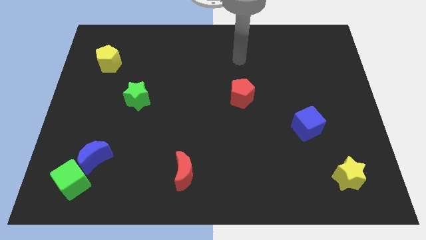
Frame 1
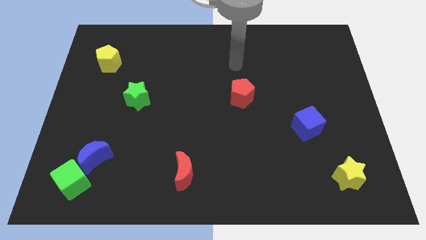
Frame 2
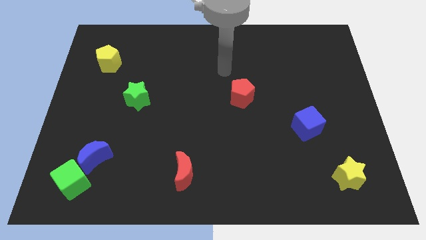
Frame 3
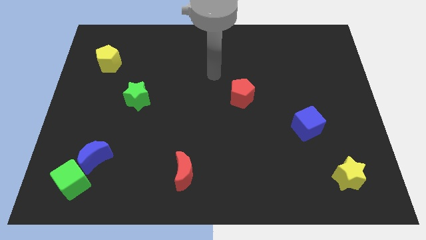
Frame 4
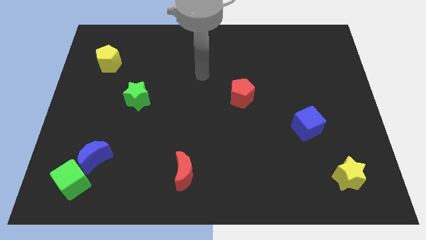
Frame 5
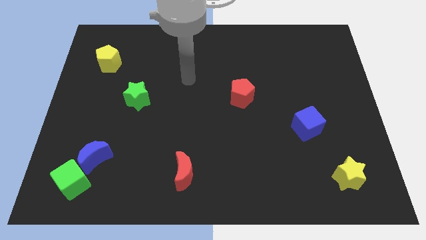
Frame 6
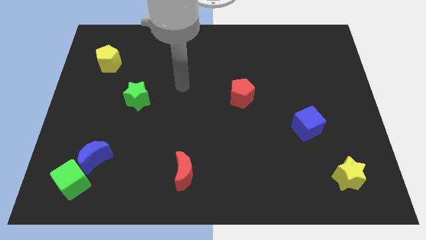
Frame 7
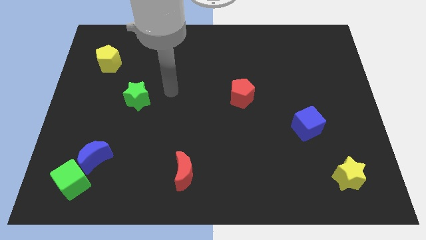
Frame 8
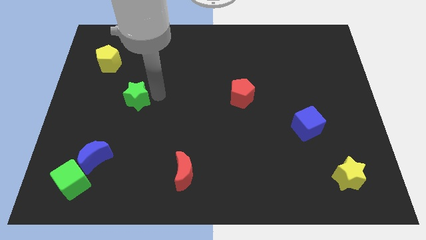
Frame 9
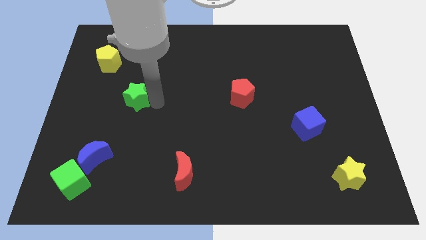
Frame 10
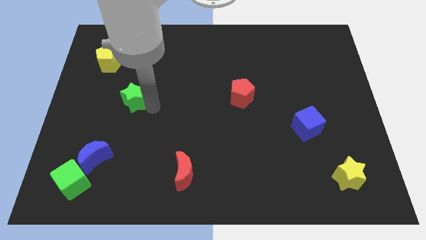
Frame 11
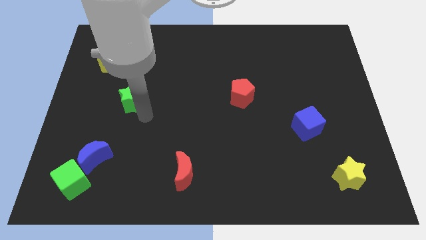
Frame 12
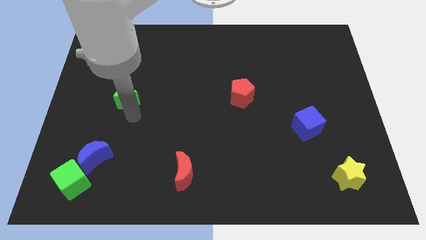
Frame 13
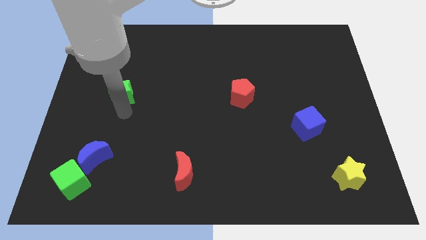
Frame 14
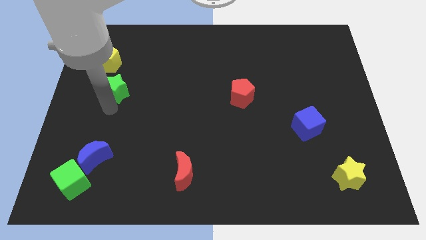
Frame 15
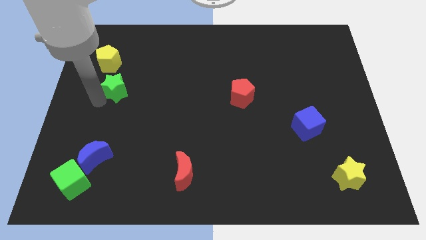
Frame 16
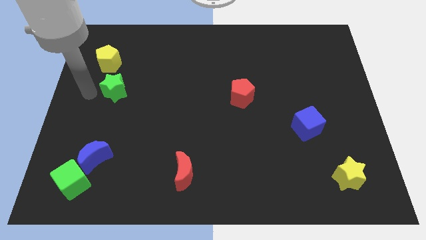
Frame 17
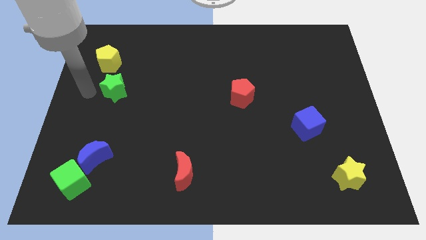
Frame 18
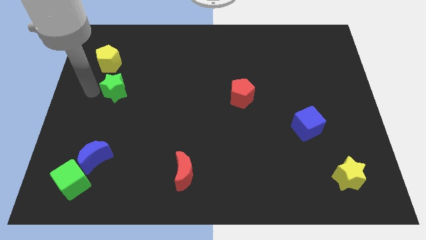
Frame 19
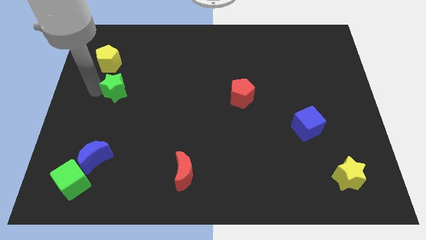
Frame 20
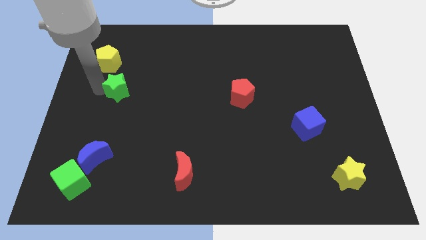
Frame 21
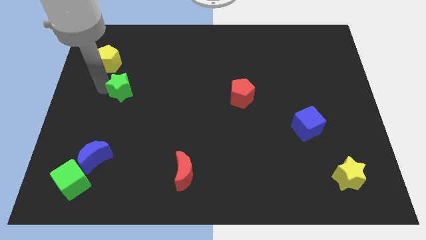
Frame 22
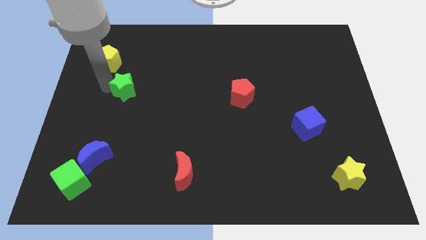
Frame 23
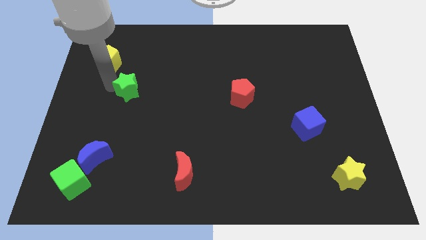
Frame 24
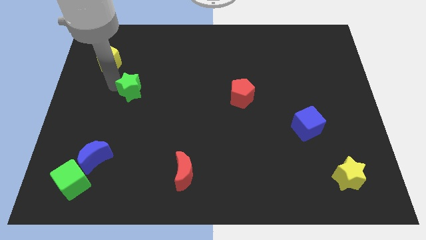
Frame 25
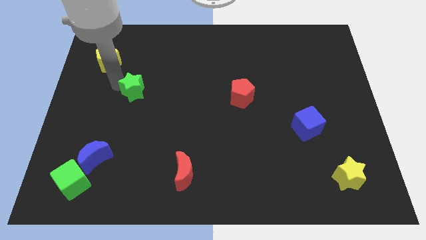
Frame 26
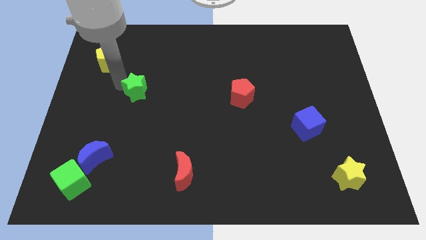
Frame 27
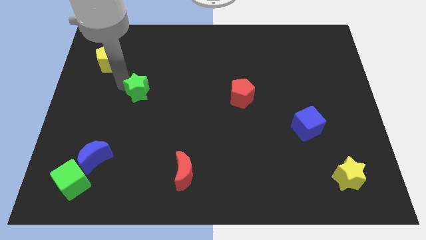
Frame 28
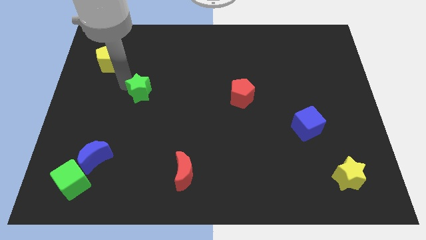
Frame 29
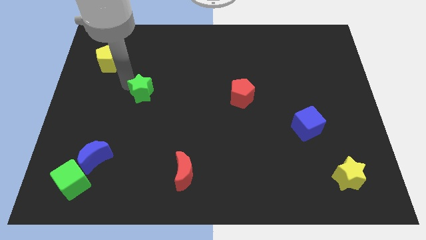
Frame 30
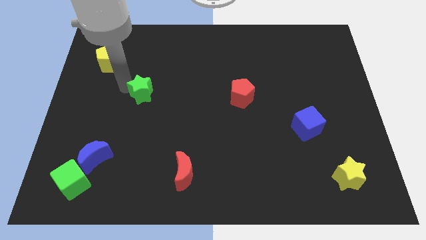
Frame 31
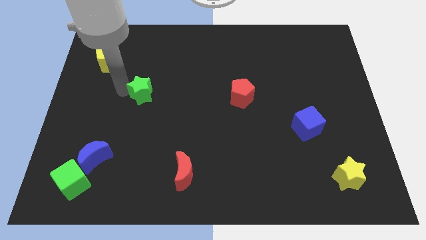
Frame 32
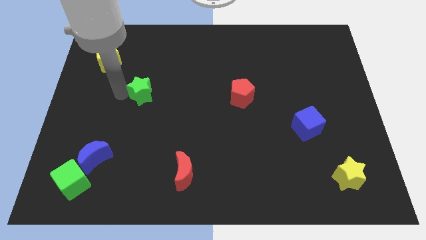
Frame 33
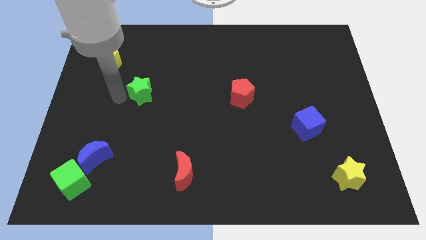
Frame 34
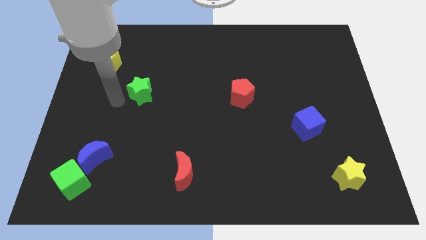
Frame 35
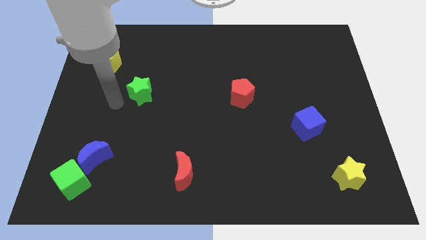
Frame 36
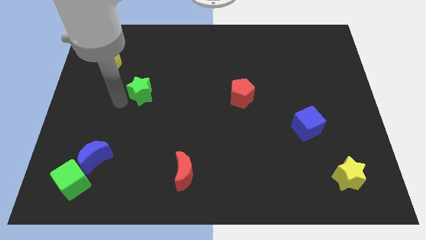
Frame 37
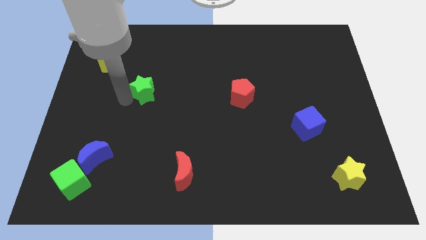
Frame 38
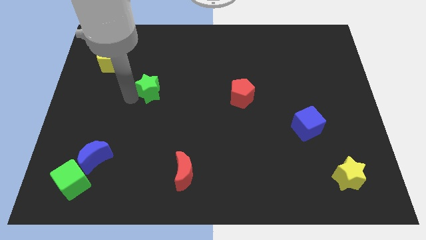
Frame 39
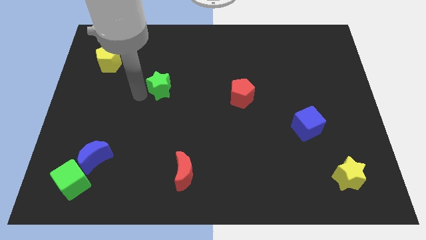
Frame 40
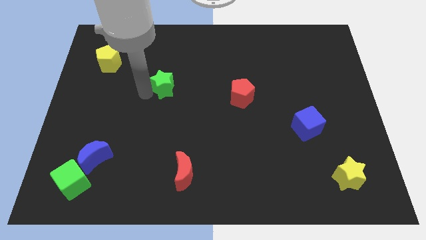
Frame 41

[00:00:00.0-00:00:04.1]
push the green star up and right diagonally a little bit

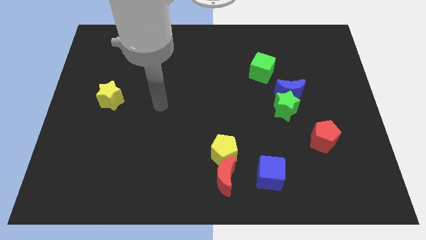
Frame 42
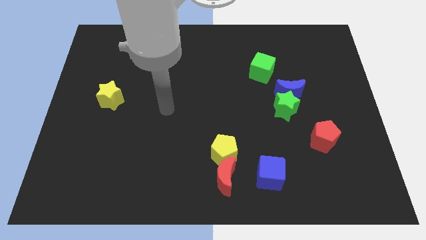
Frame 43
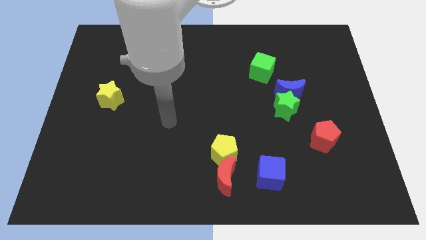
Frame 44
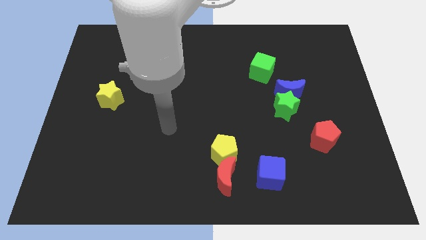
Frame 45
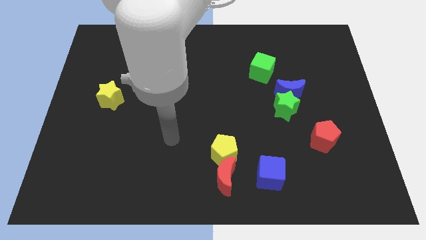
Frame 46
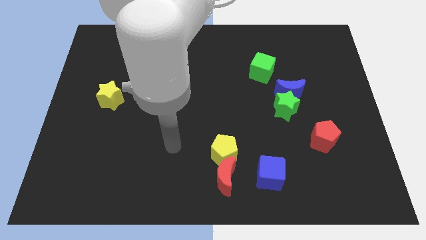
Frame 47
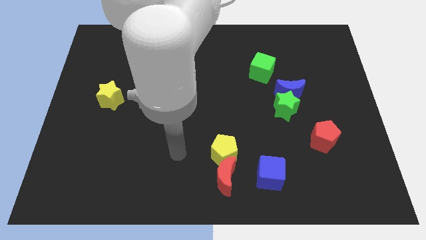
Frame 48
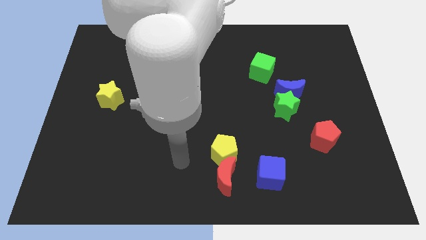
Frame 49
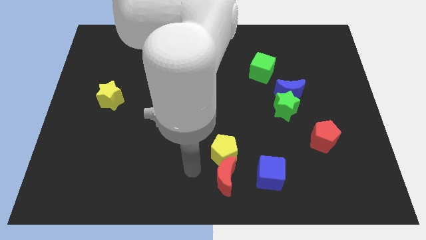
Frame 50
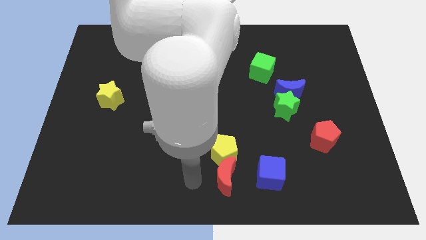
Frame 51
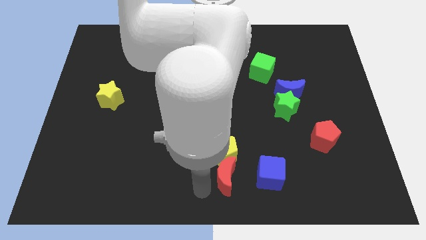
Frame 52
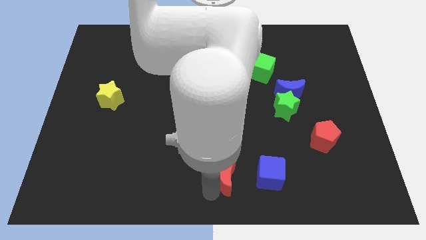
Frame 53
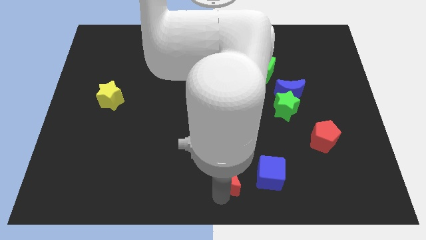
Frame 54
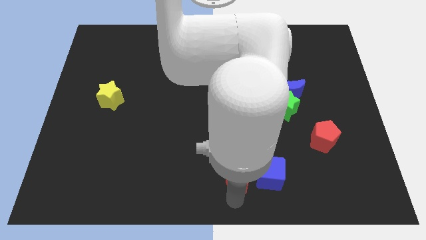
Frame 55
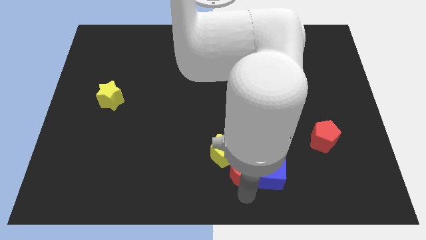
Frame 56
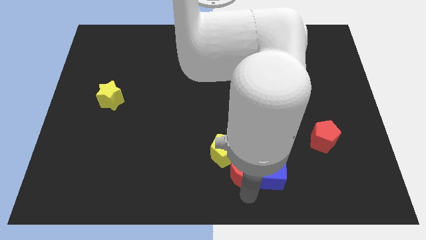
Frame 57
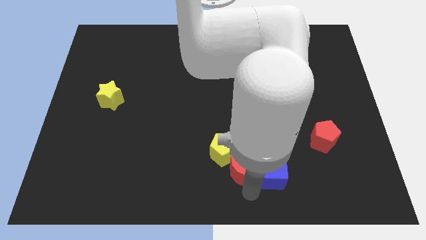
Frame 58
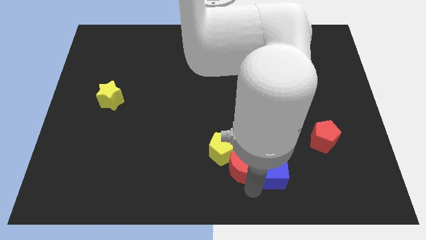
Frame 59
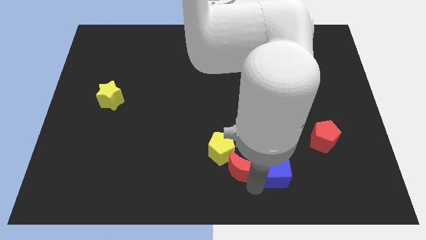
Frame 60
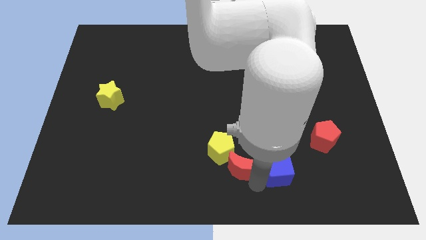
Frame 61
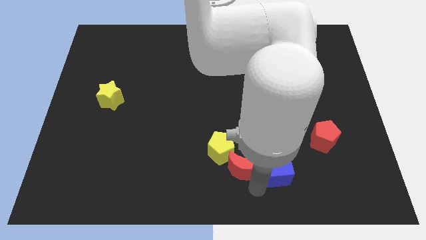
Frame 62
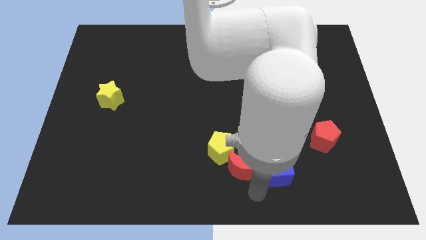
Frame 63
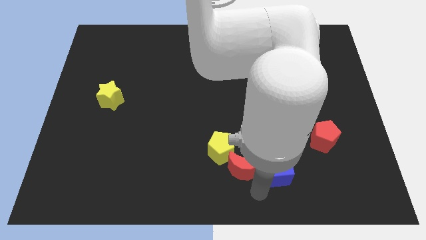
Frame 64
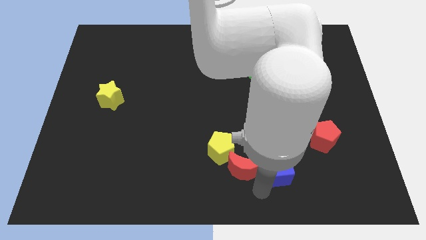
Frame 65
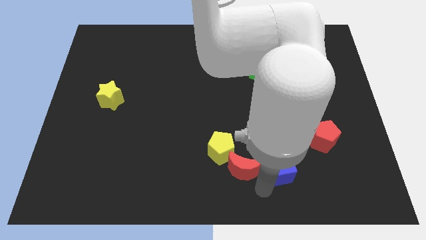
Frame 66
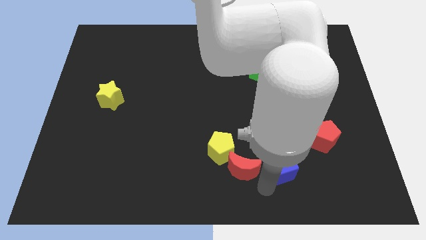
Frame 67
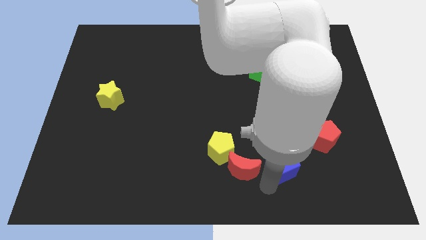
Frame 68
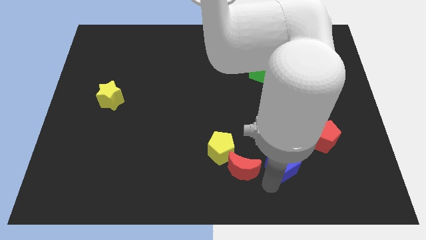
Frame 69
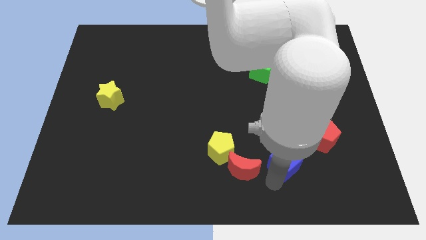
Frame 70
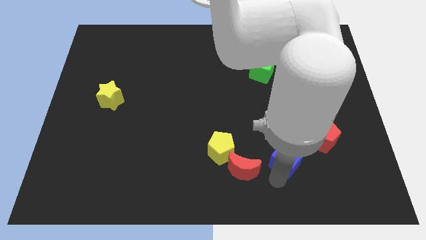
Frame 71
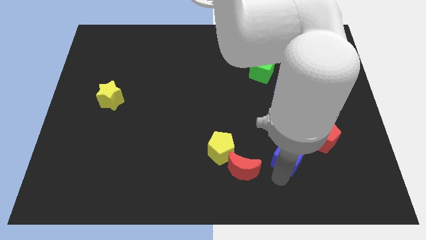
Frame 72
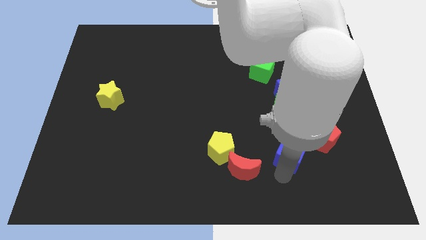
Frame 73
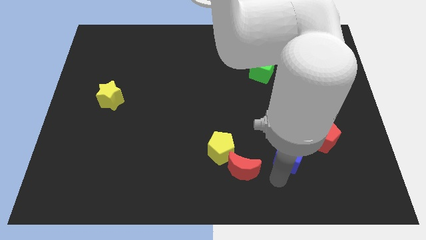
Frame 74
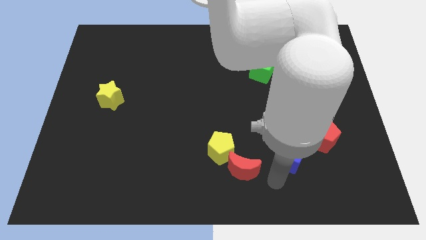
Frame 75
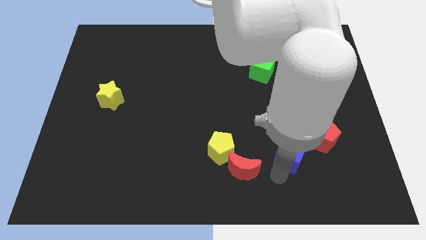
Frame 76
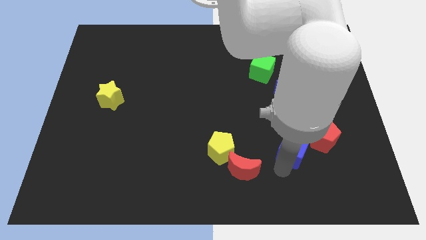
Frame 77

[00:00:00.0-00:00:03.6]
slide the blue cube a little upwards and then to the right

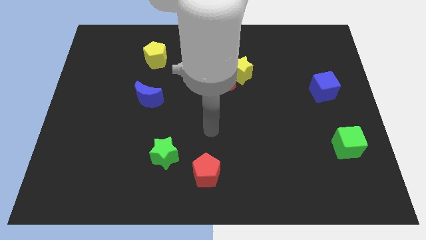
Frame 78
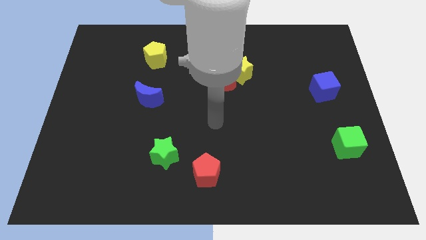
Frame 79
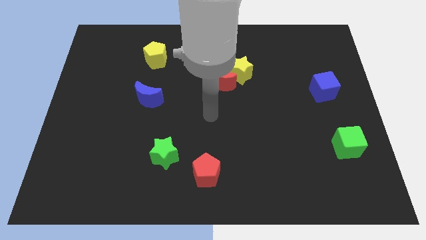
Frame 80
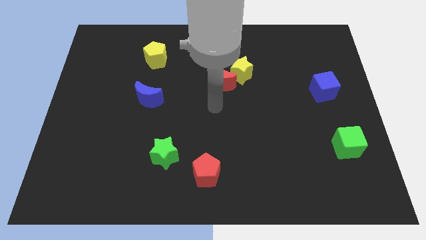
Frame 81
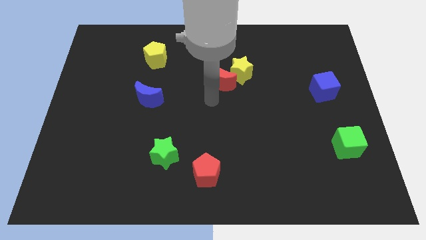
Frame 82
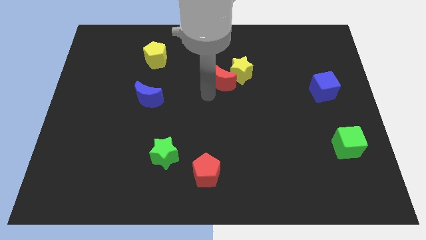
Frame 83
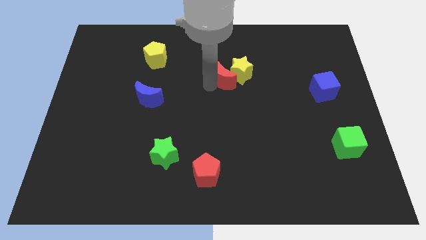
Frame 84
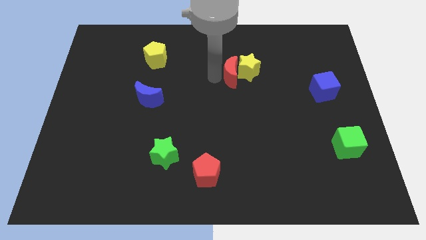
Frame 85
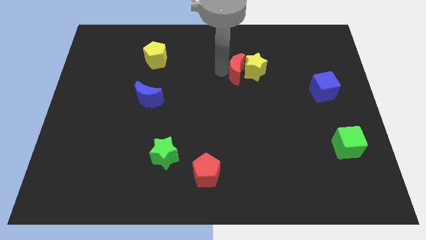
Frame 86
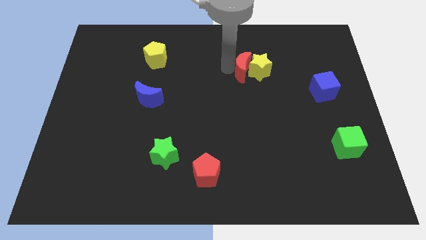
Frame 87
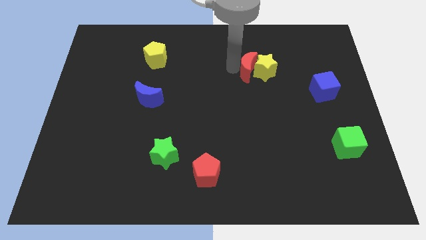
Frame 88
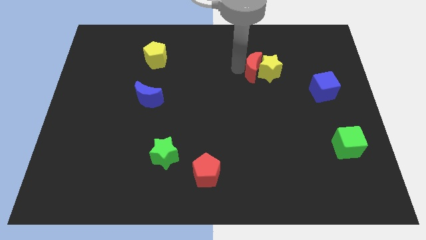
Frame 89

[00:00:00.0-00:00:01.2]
slide the yellow star to the right a little
